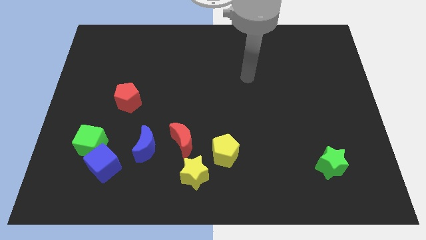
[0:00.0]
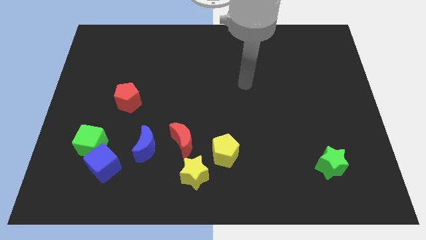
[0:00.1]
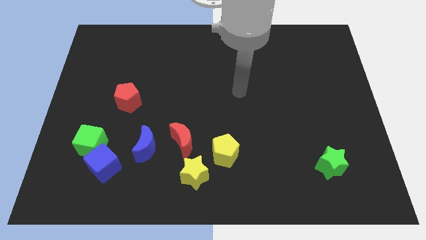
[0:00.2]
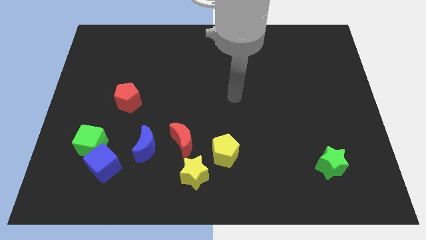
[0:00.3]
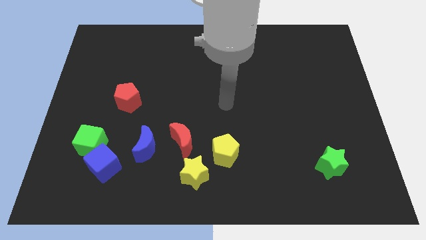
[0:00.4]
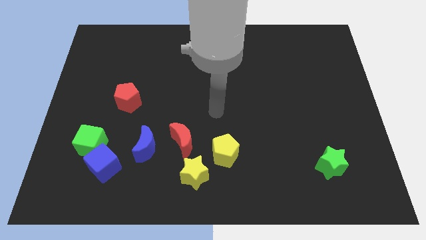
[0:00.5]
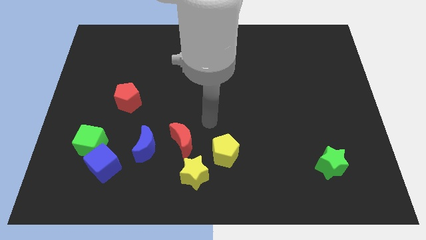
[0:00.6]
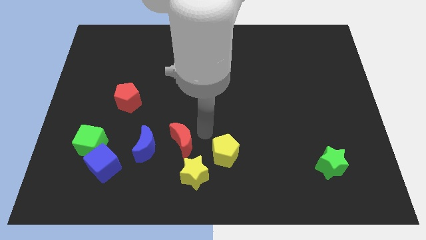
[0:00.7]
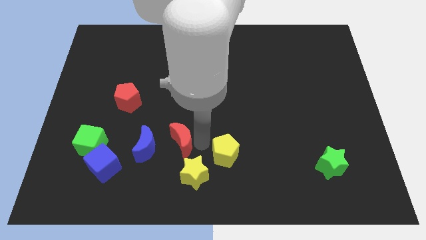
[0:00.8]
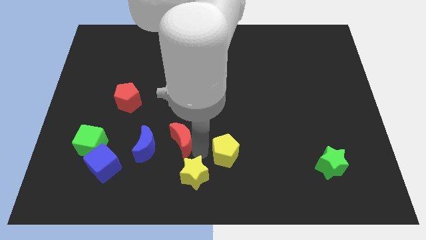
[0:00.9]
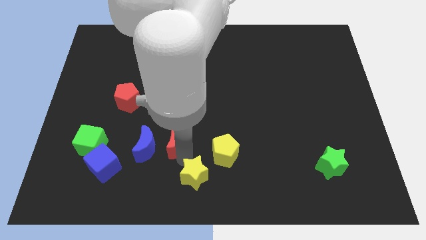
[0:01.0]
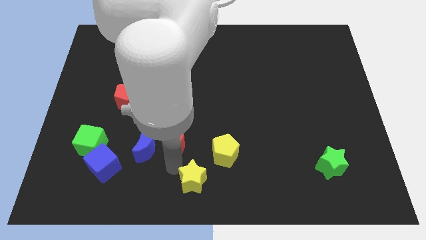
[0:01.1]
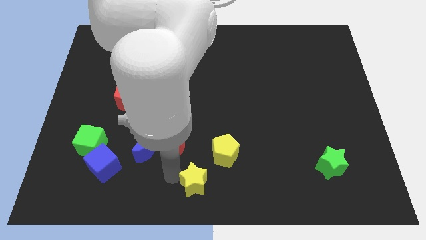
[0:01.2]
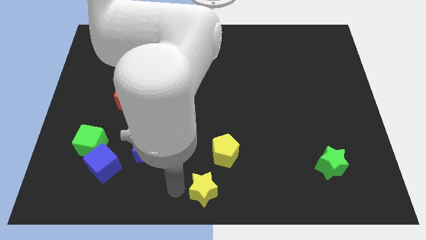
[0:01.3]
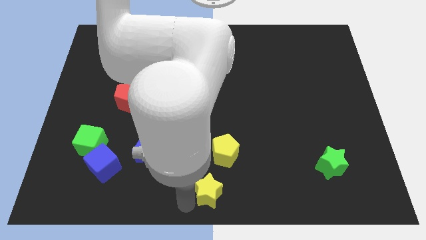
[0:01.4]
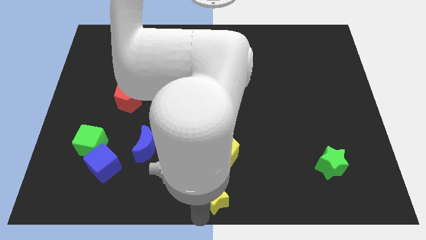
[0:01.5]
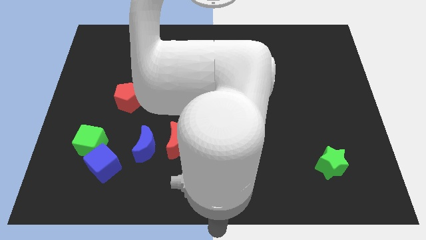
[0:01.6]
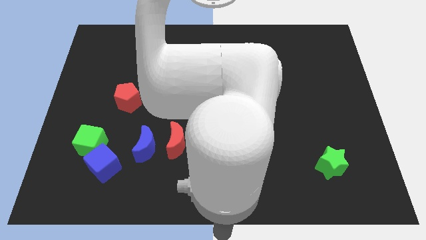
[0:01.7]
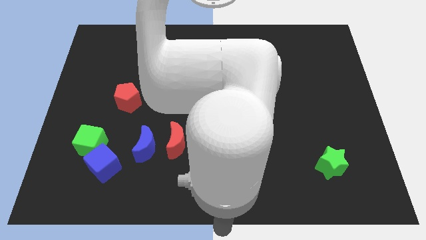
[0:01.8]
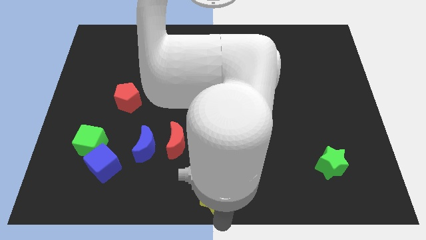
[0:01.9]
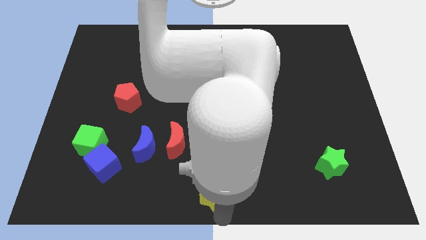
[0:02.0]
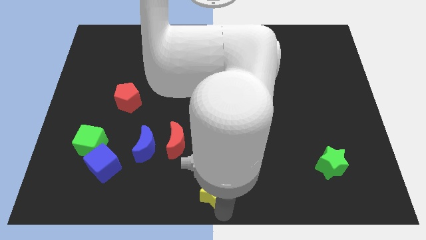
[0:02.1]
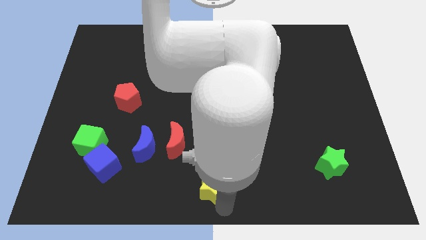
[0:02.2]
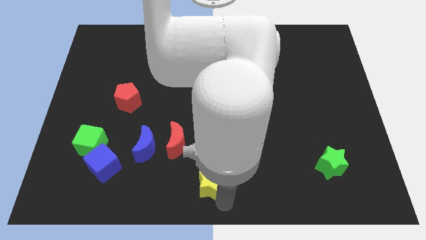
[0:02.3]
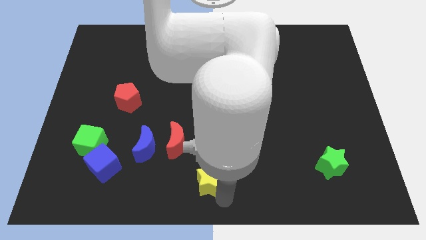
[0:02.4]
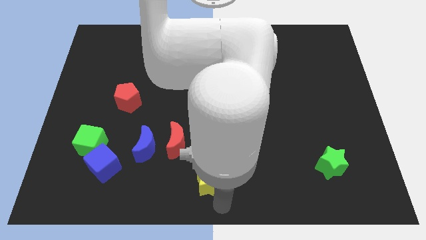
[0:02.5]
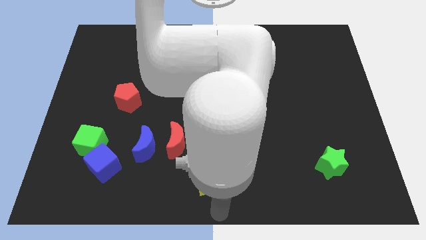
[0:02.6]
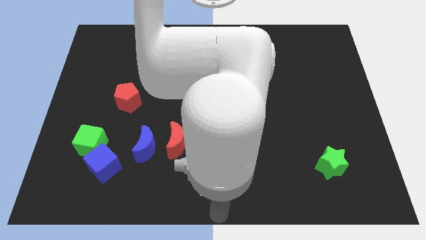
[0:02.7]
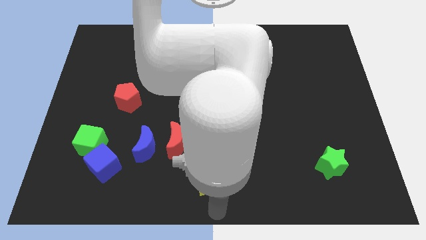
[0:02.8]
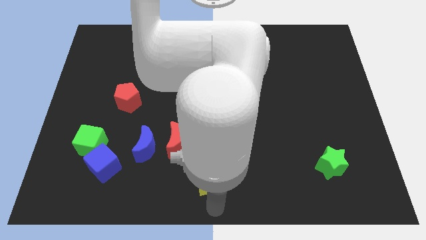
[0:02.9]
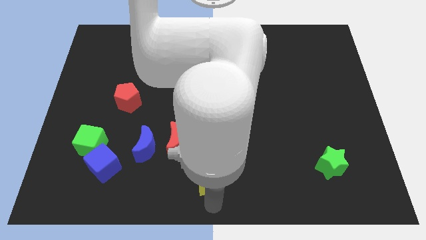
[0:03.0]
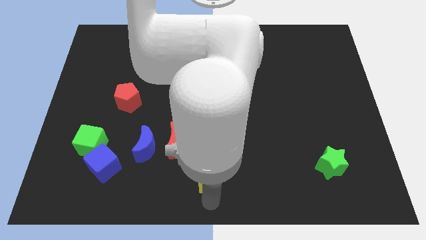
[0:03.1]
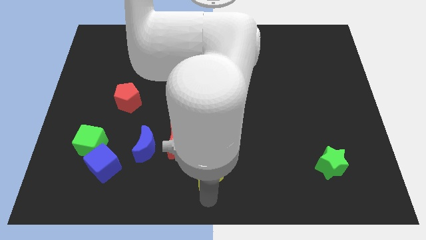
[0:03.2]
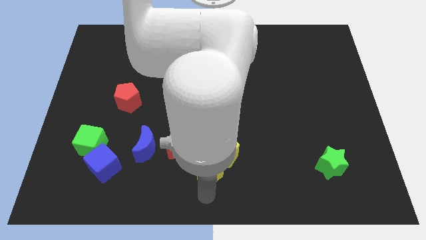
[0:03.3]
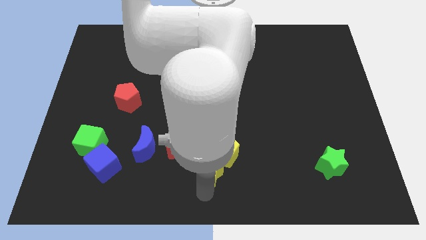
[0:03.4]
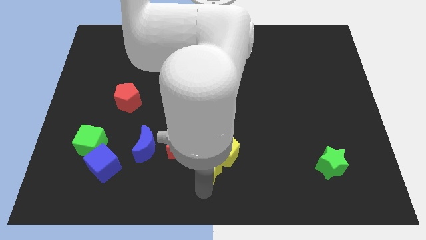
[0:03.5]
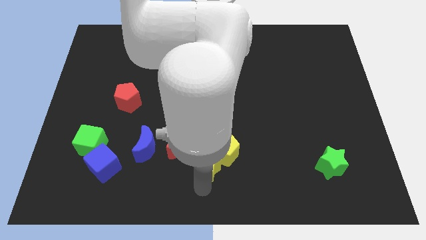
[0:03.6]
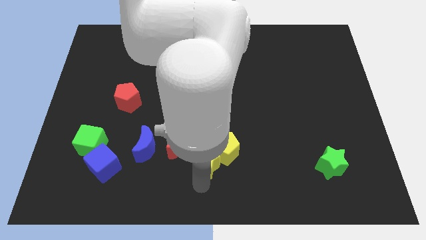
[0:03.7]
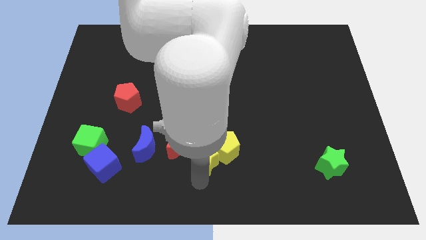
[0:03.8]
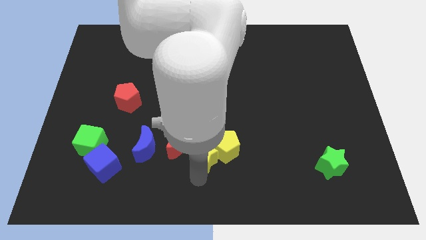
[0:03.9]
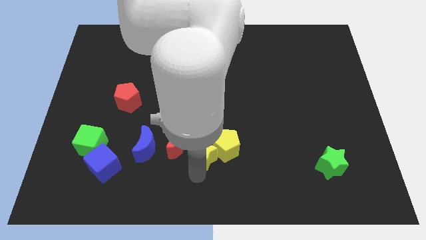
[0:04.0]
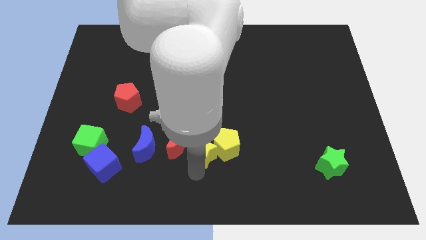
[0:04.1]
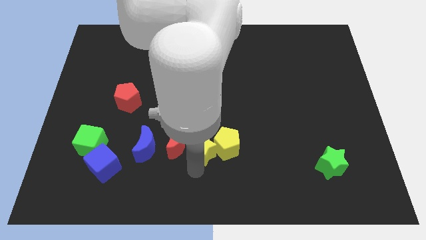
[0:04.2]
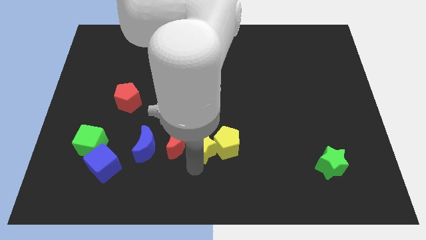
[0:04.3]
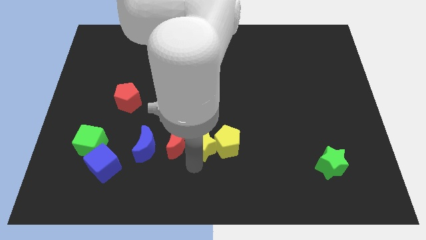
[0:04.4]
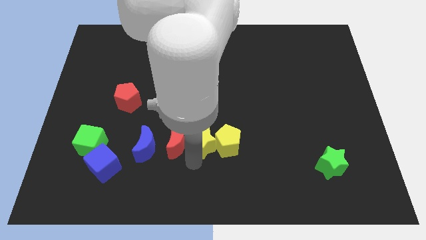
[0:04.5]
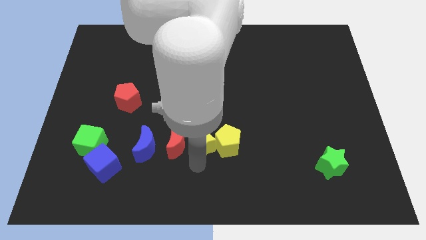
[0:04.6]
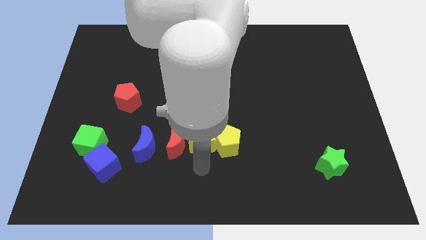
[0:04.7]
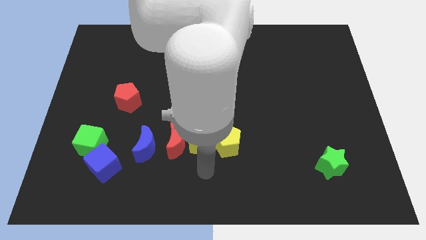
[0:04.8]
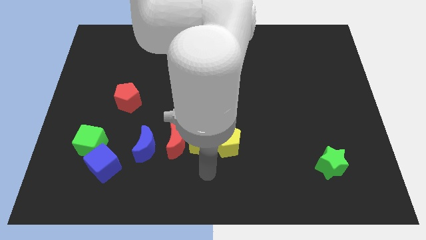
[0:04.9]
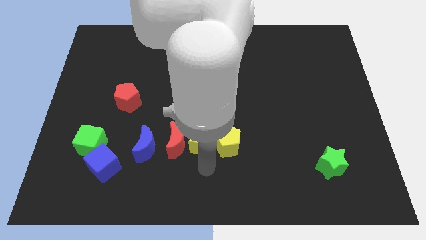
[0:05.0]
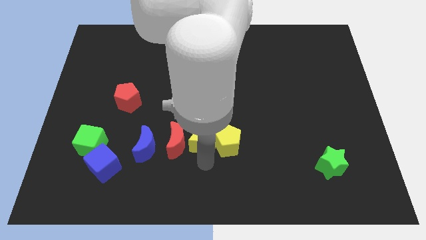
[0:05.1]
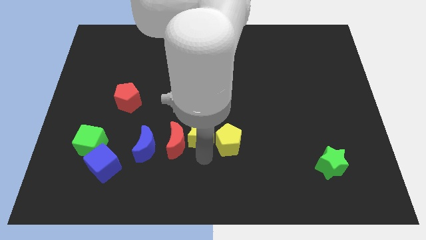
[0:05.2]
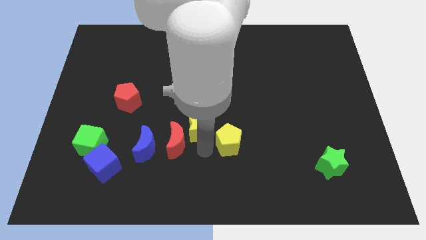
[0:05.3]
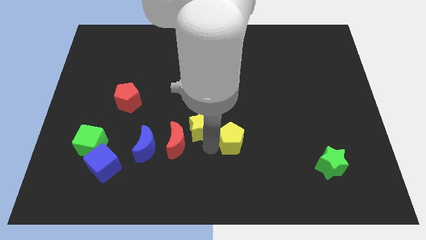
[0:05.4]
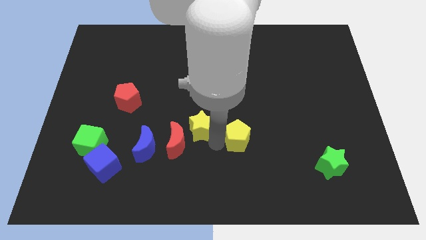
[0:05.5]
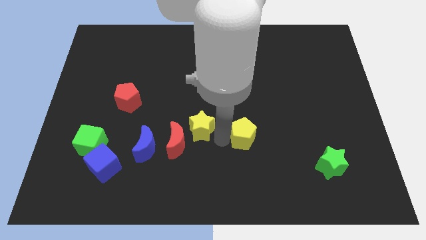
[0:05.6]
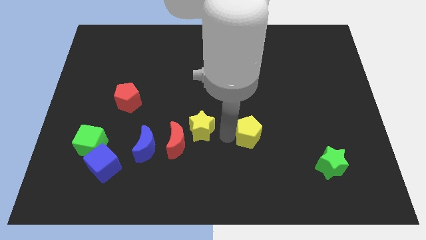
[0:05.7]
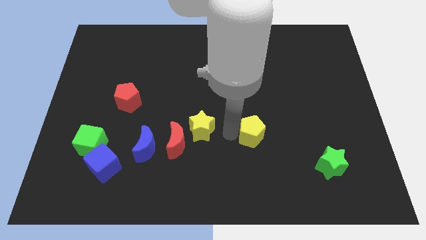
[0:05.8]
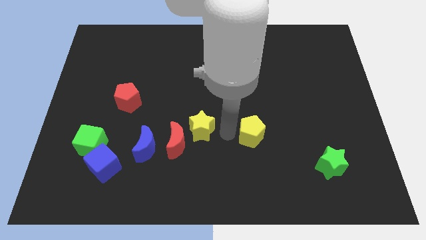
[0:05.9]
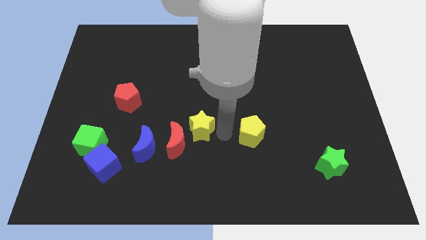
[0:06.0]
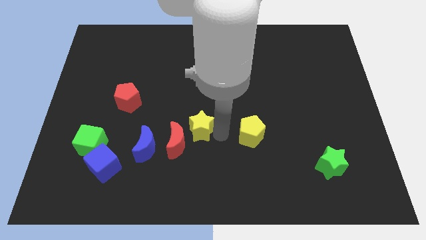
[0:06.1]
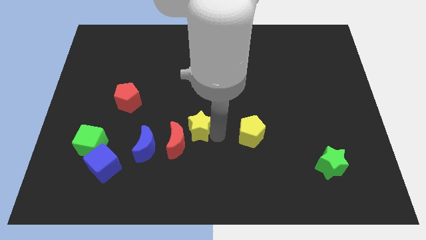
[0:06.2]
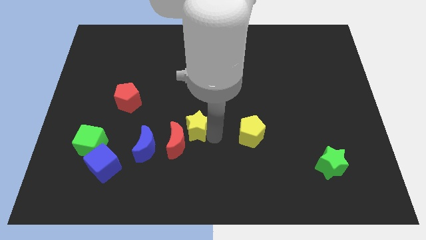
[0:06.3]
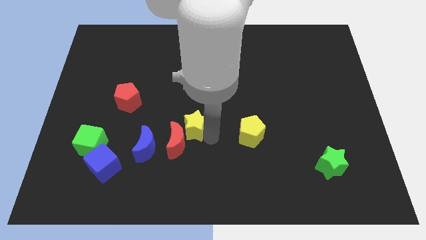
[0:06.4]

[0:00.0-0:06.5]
move the yellow star to the top right of the blue moon

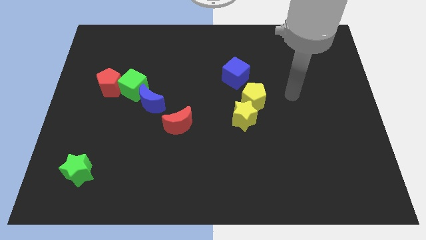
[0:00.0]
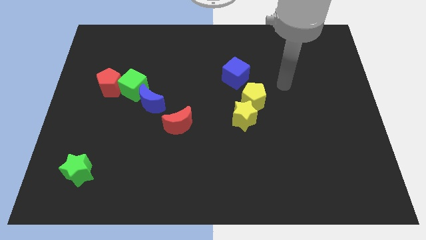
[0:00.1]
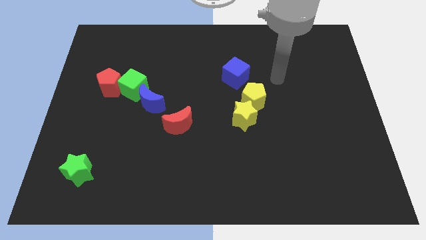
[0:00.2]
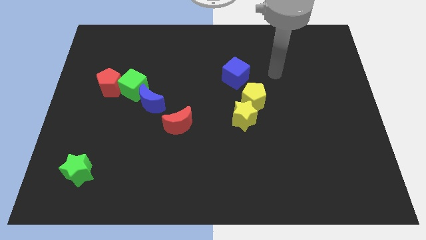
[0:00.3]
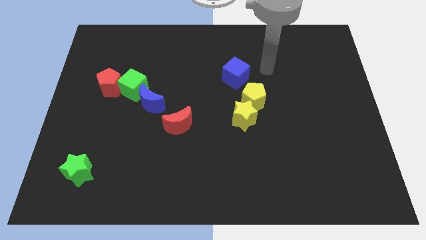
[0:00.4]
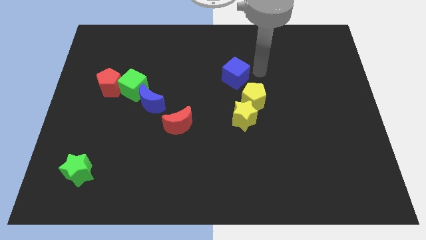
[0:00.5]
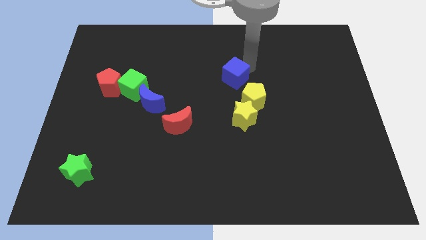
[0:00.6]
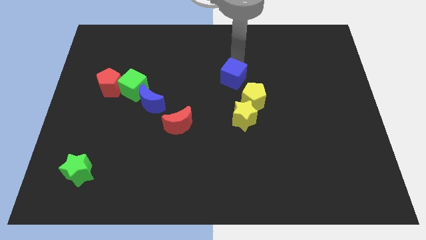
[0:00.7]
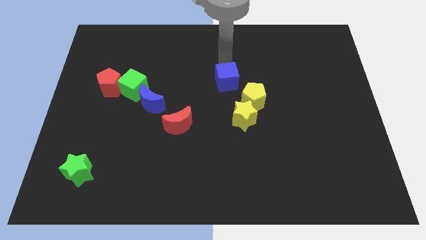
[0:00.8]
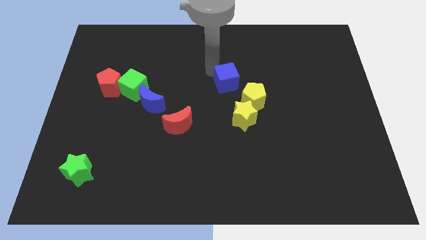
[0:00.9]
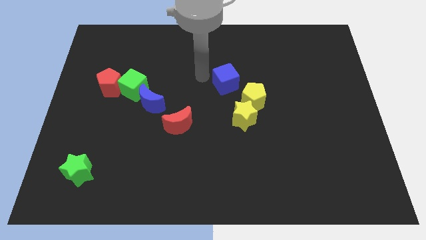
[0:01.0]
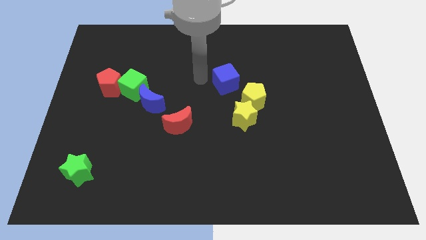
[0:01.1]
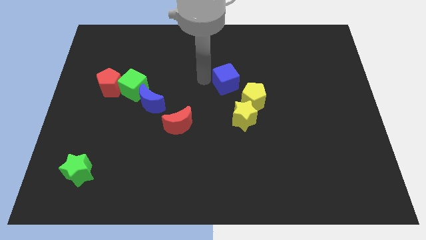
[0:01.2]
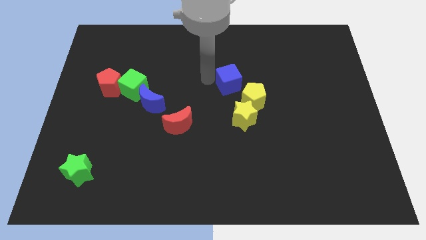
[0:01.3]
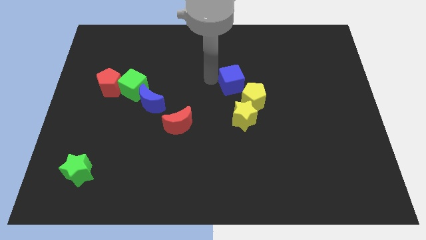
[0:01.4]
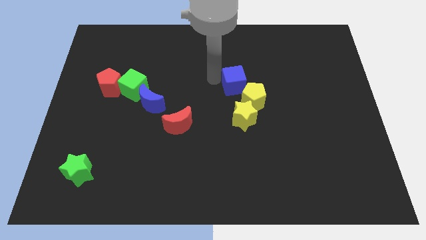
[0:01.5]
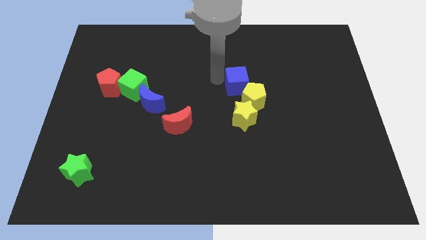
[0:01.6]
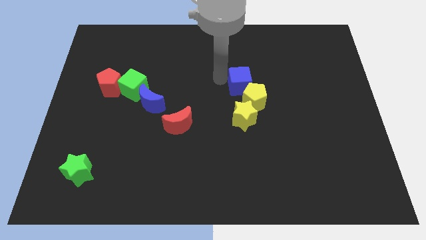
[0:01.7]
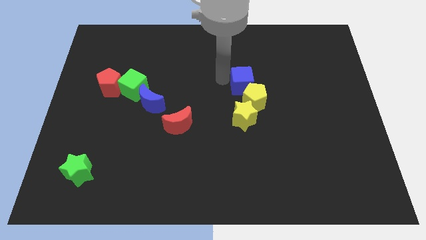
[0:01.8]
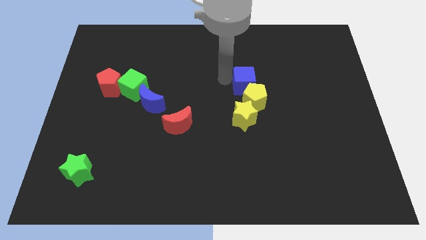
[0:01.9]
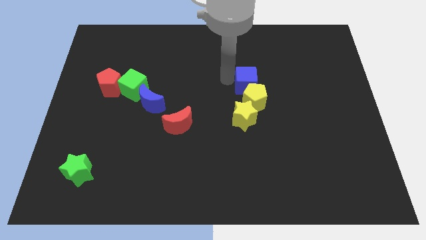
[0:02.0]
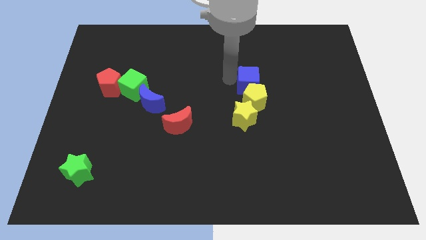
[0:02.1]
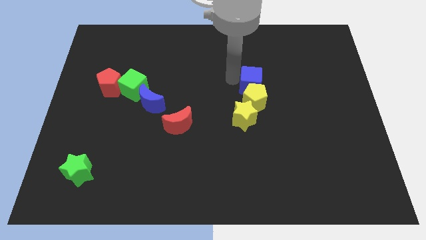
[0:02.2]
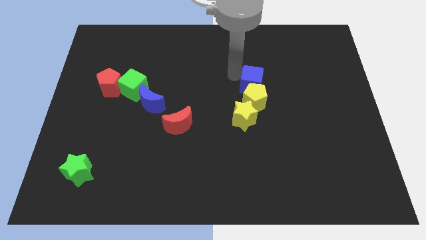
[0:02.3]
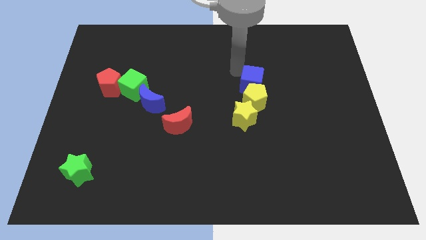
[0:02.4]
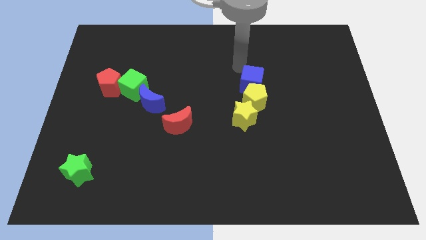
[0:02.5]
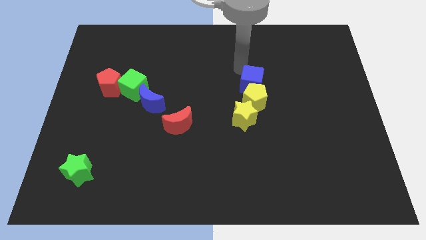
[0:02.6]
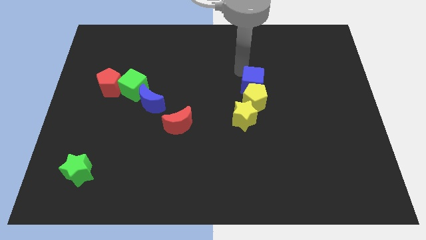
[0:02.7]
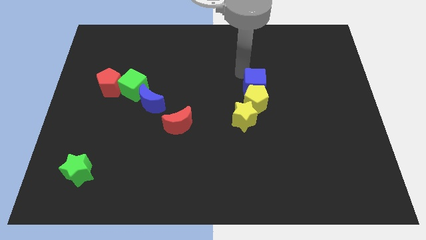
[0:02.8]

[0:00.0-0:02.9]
move the blue cube to the top right of the yellow star
